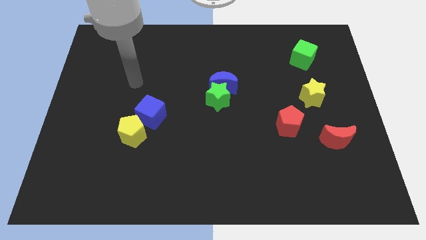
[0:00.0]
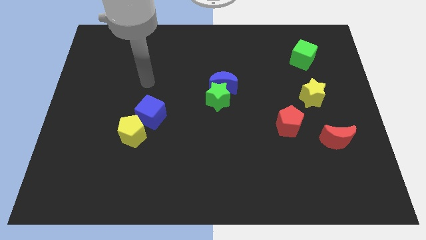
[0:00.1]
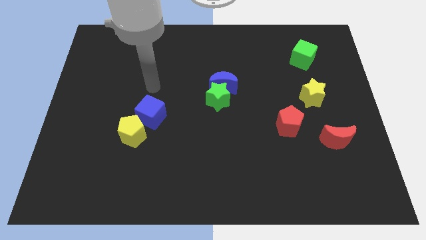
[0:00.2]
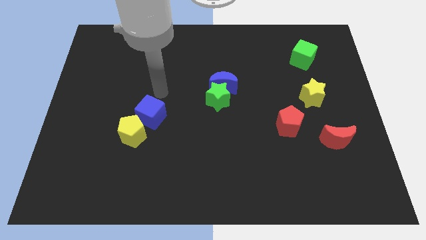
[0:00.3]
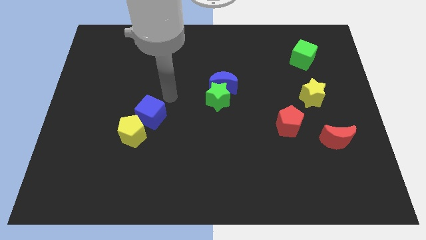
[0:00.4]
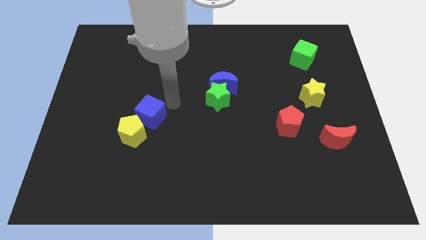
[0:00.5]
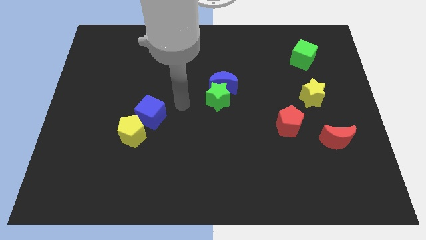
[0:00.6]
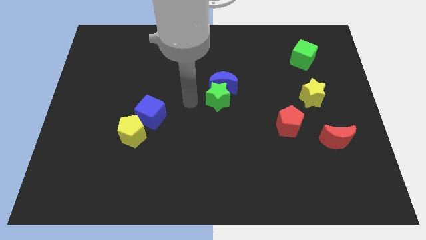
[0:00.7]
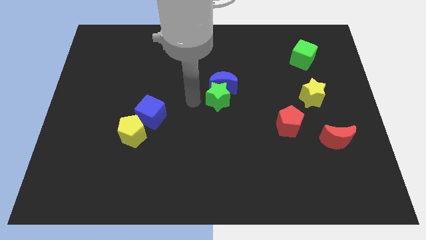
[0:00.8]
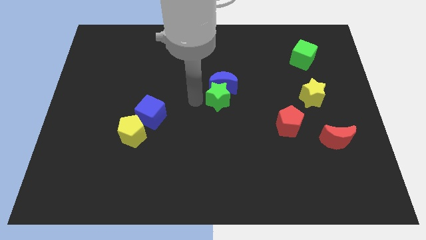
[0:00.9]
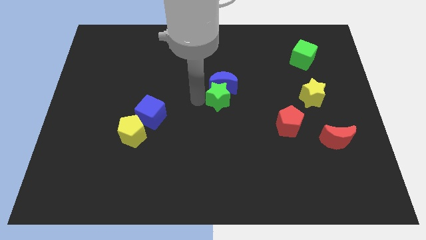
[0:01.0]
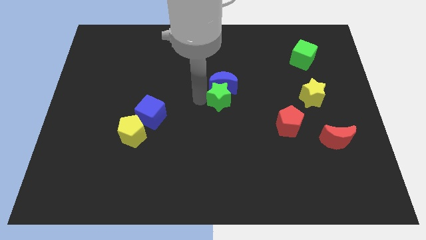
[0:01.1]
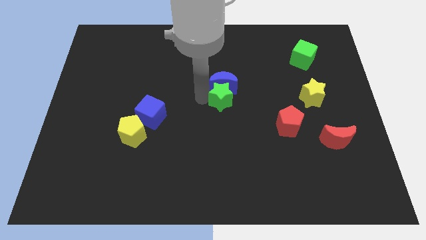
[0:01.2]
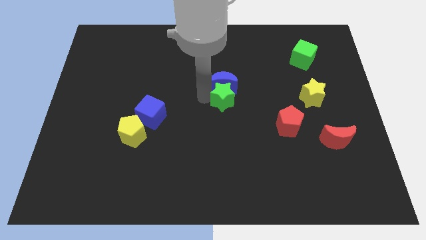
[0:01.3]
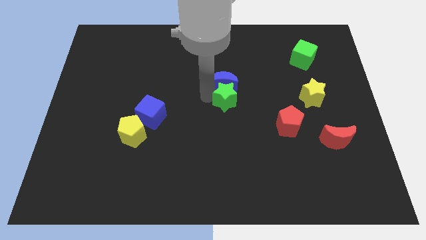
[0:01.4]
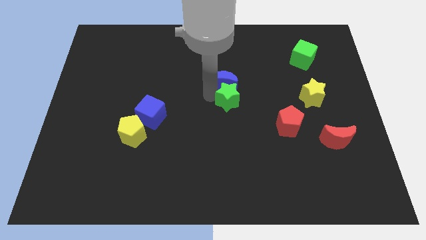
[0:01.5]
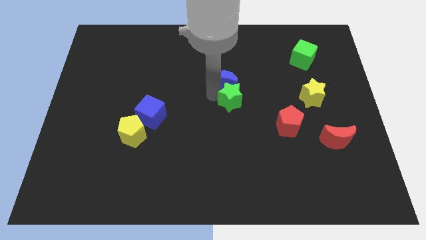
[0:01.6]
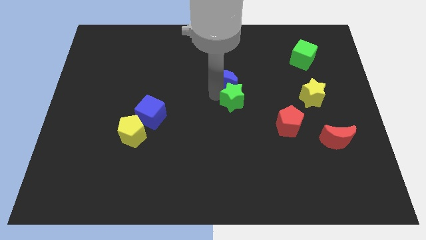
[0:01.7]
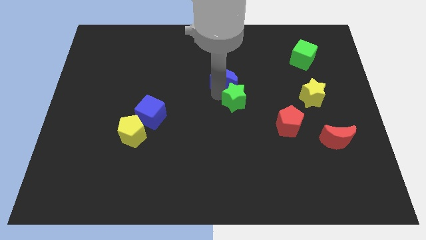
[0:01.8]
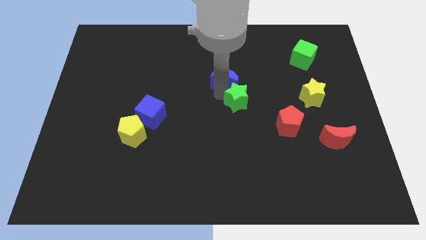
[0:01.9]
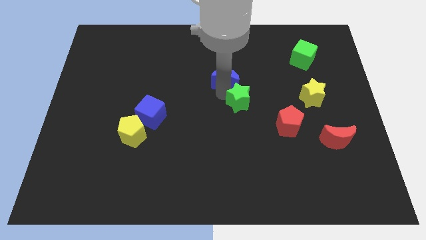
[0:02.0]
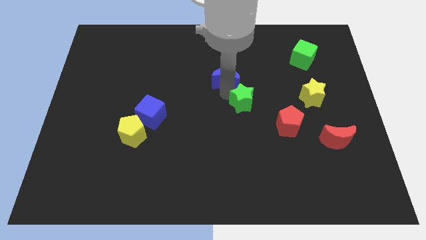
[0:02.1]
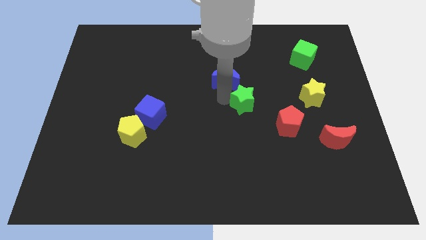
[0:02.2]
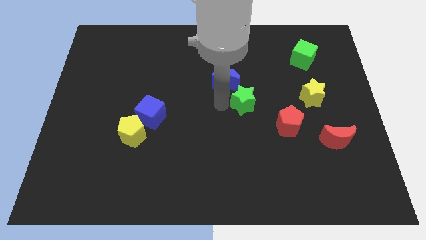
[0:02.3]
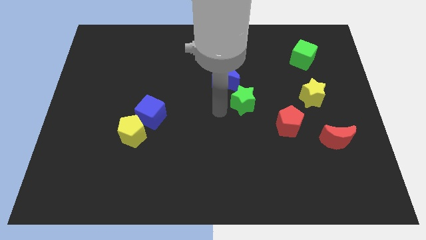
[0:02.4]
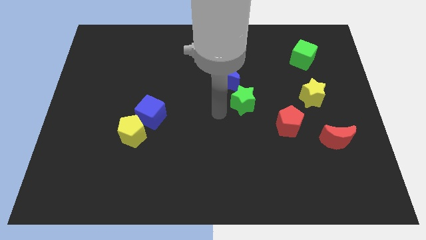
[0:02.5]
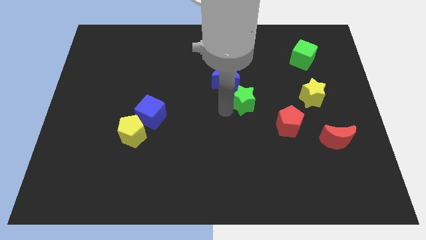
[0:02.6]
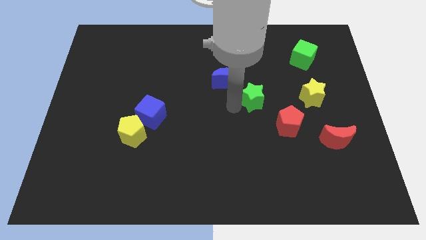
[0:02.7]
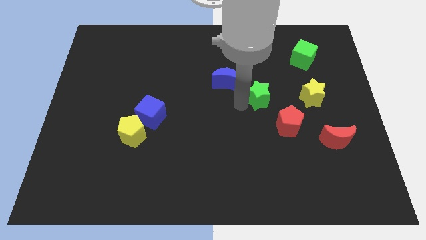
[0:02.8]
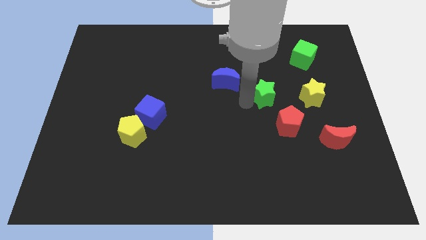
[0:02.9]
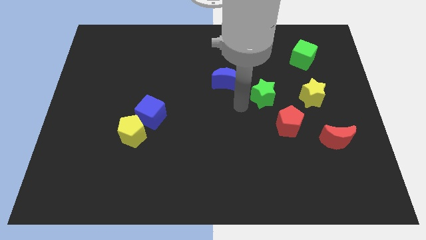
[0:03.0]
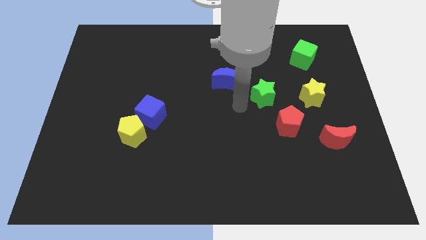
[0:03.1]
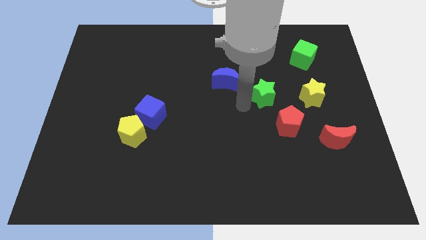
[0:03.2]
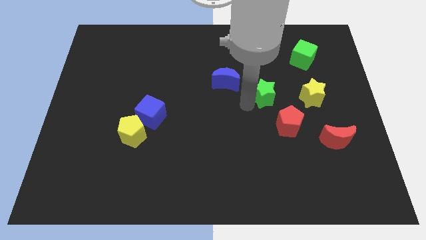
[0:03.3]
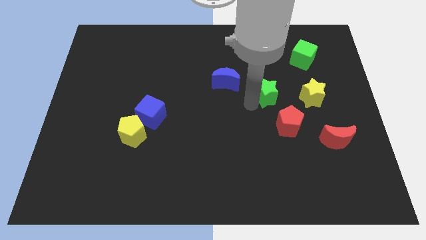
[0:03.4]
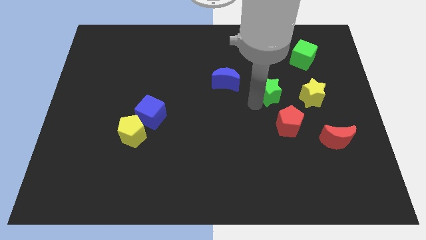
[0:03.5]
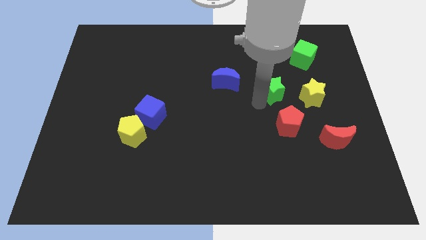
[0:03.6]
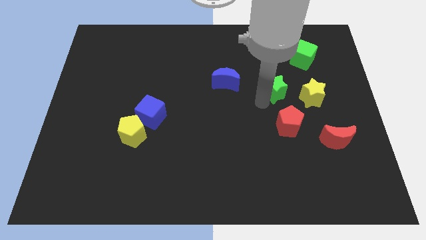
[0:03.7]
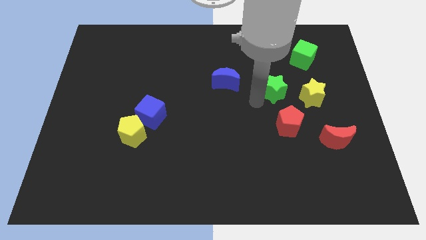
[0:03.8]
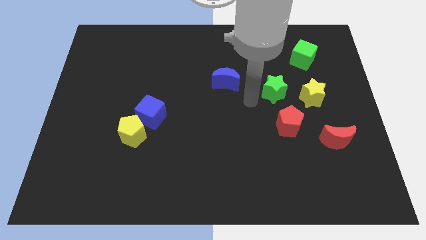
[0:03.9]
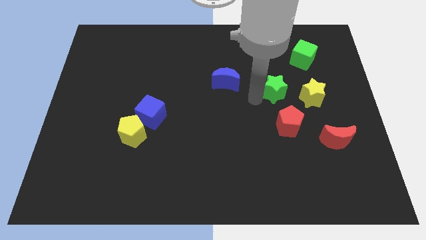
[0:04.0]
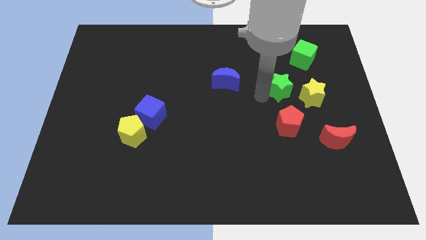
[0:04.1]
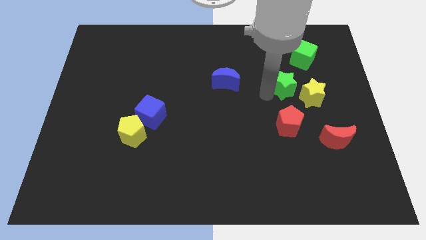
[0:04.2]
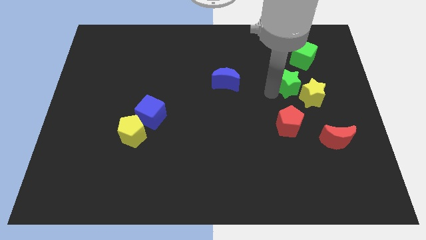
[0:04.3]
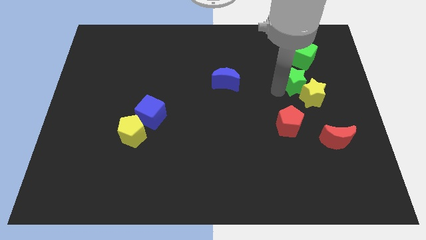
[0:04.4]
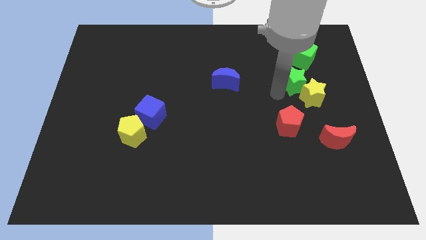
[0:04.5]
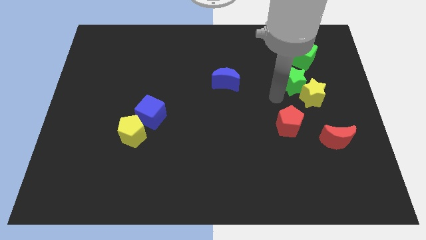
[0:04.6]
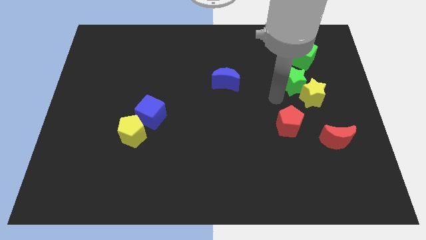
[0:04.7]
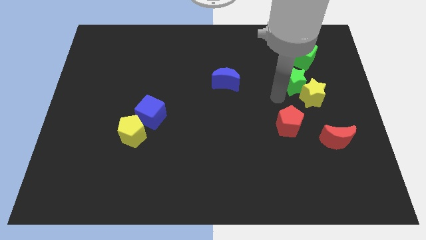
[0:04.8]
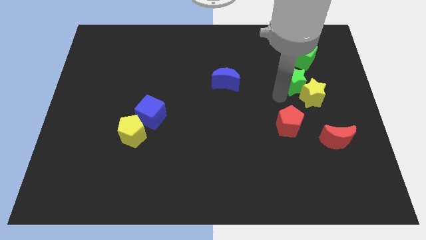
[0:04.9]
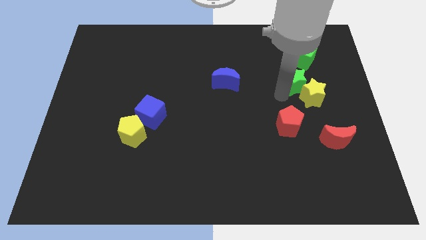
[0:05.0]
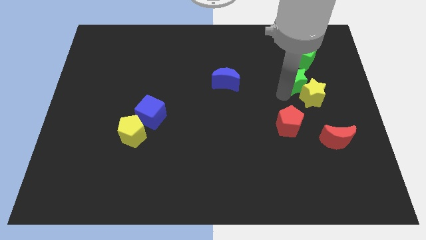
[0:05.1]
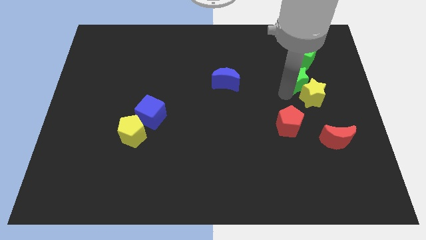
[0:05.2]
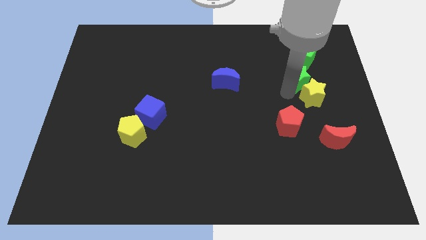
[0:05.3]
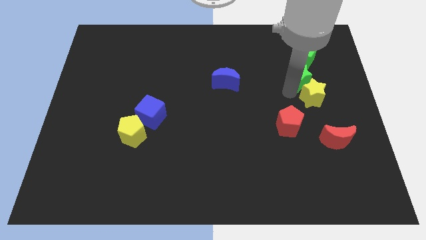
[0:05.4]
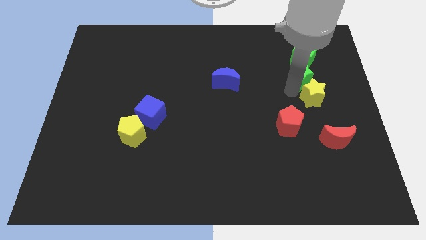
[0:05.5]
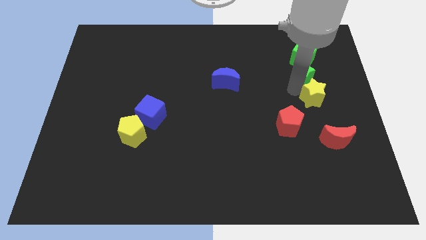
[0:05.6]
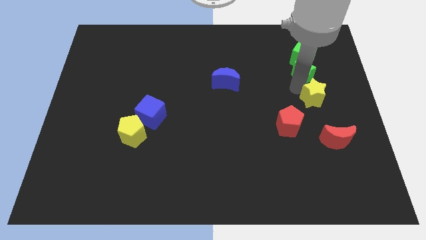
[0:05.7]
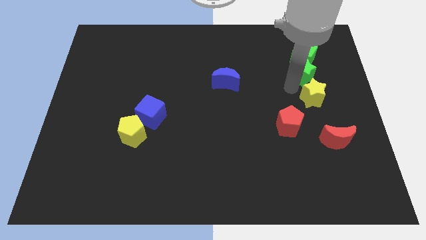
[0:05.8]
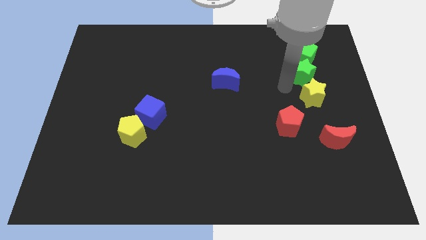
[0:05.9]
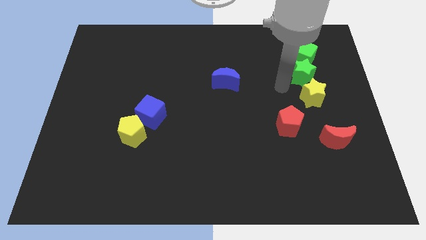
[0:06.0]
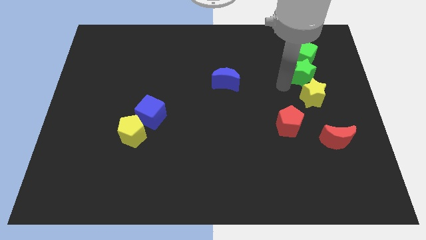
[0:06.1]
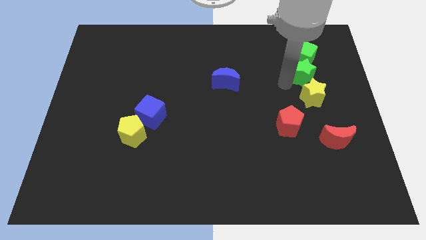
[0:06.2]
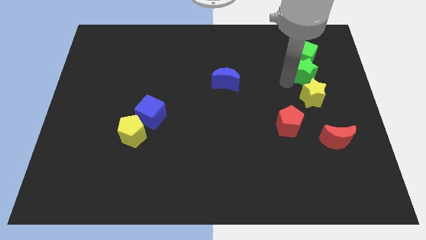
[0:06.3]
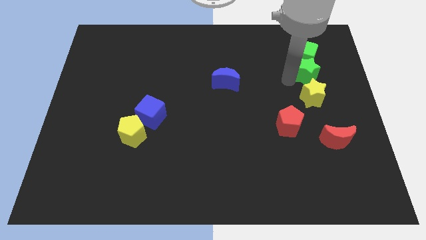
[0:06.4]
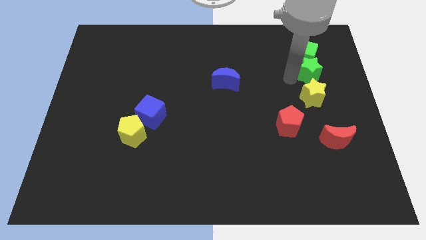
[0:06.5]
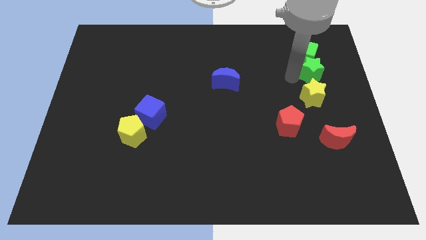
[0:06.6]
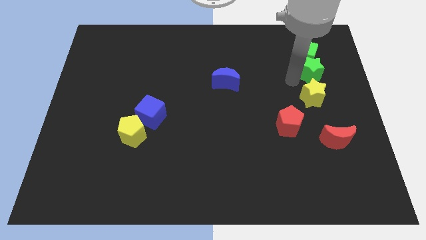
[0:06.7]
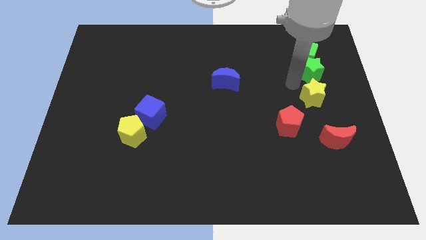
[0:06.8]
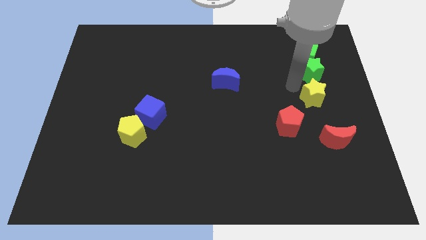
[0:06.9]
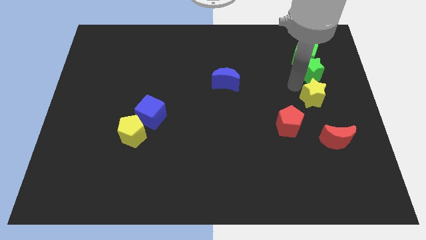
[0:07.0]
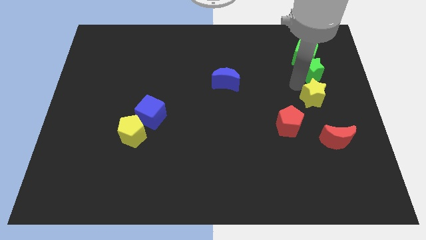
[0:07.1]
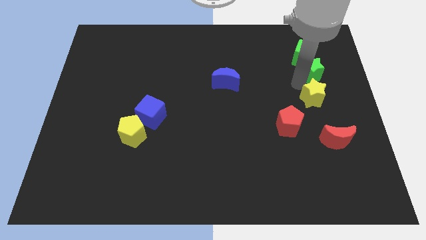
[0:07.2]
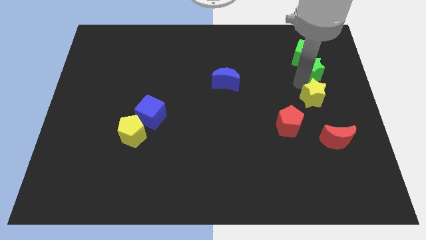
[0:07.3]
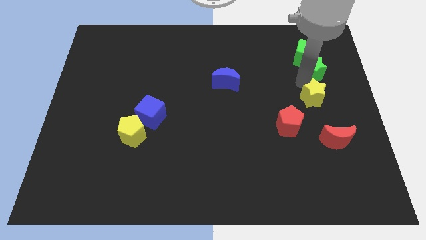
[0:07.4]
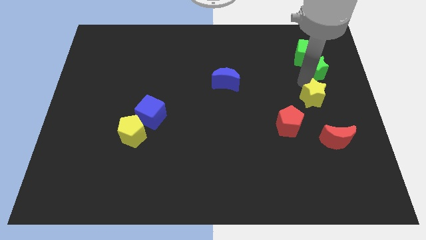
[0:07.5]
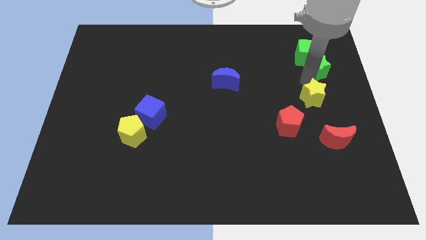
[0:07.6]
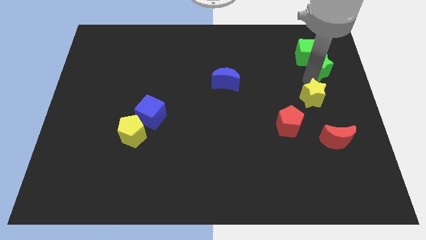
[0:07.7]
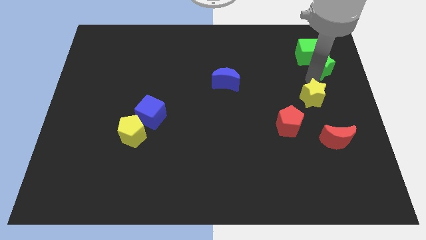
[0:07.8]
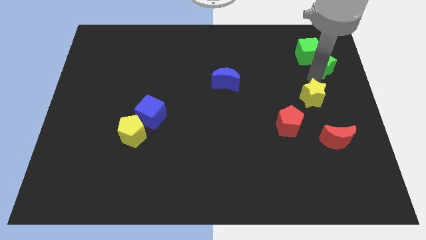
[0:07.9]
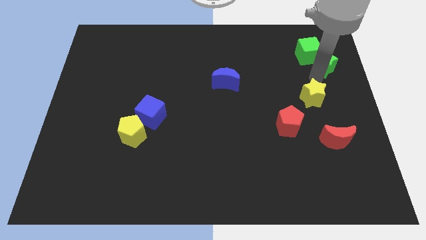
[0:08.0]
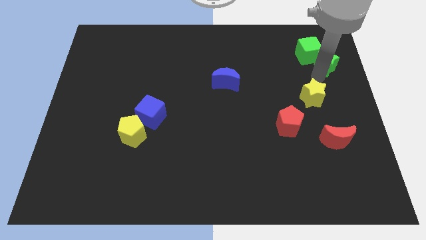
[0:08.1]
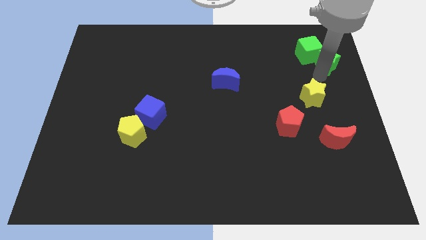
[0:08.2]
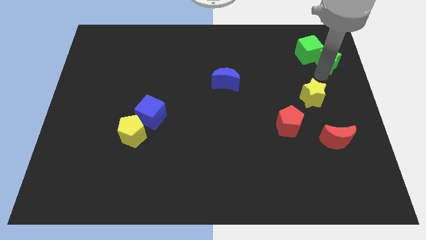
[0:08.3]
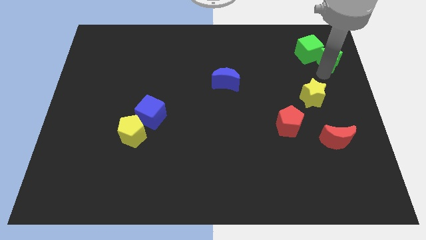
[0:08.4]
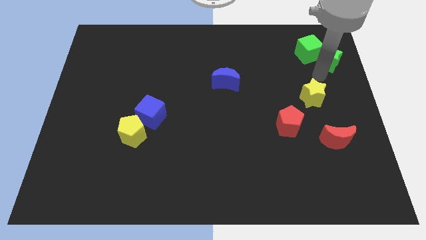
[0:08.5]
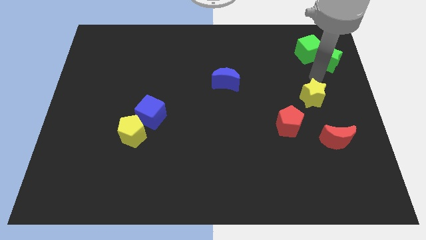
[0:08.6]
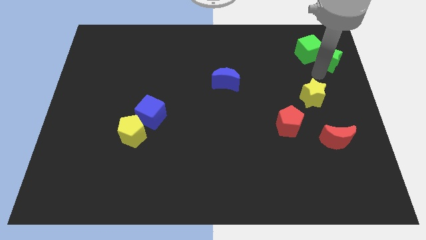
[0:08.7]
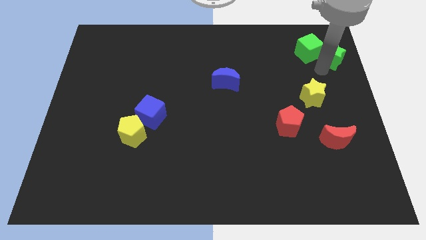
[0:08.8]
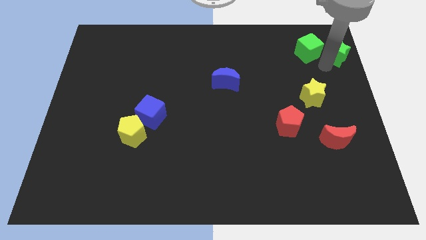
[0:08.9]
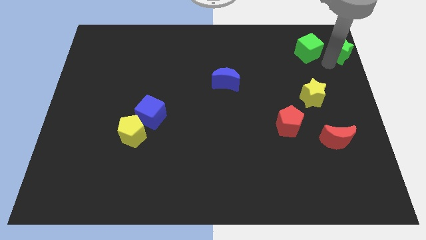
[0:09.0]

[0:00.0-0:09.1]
slide the green star to the top right of the board
